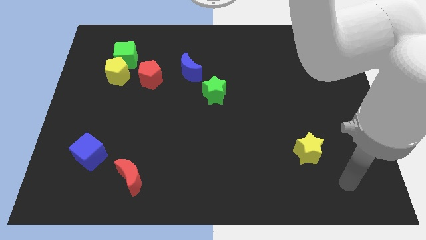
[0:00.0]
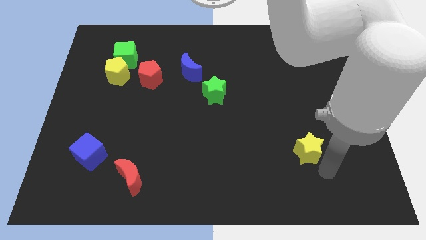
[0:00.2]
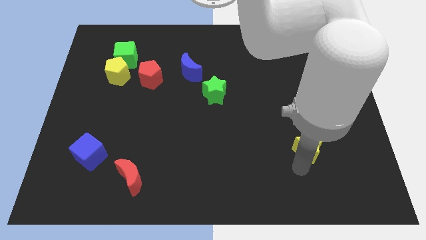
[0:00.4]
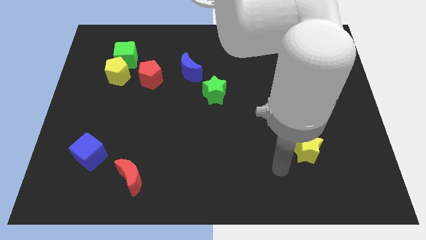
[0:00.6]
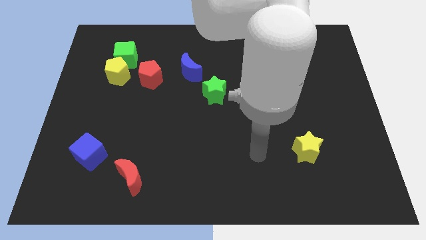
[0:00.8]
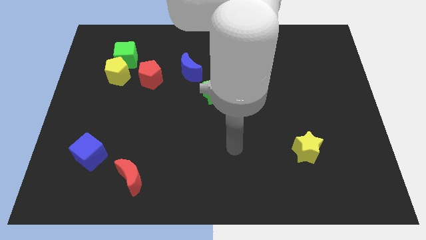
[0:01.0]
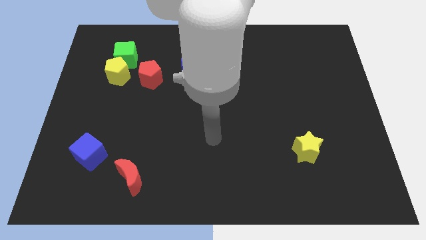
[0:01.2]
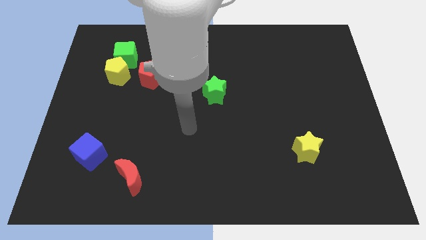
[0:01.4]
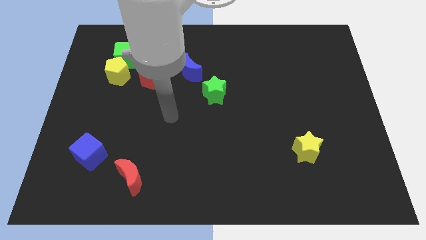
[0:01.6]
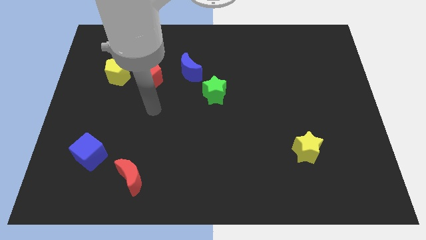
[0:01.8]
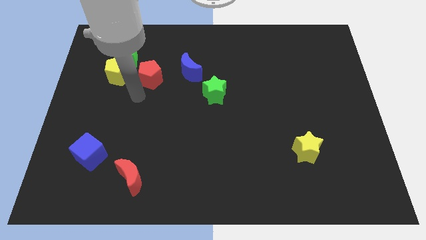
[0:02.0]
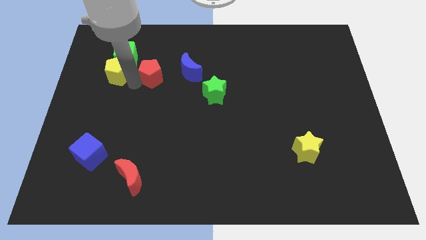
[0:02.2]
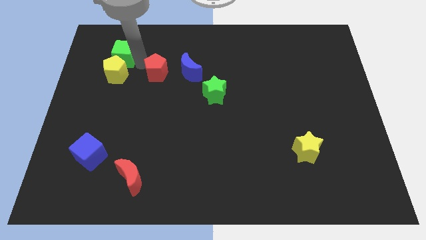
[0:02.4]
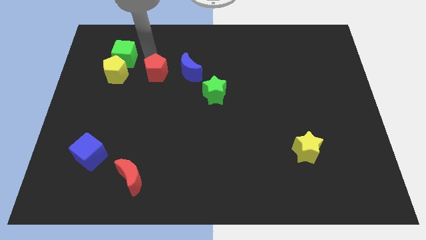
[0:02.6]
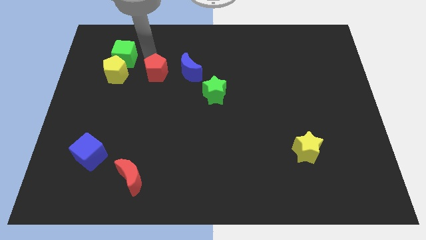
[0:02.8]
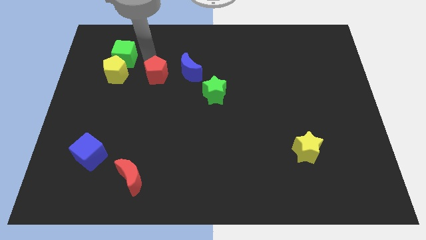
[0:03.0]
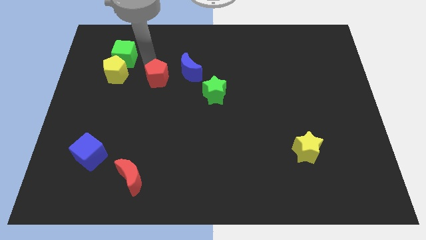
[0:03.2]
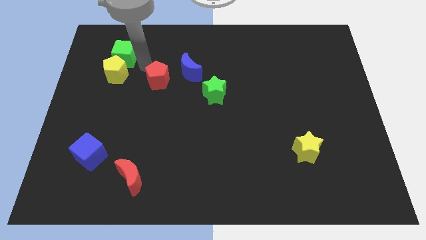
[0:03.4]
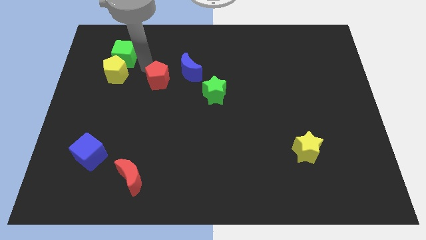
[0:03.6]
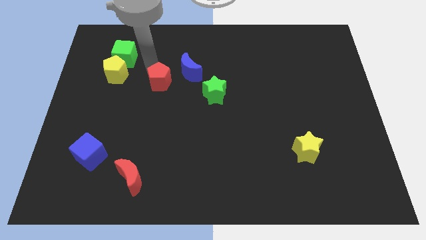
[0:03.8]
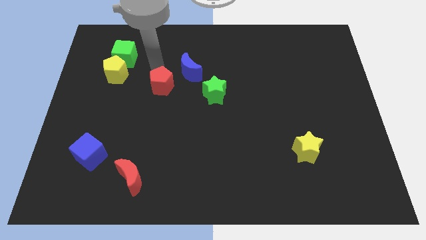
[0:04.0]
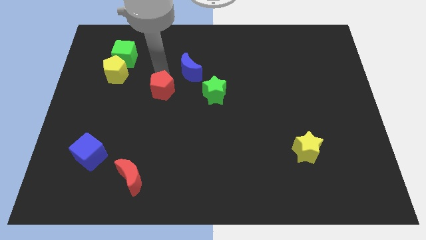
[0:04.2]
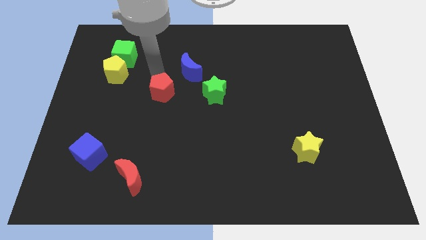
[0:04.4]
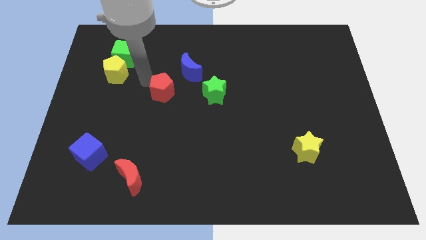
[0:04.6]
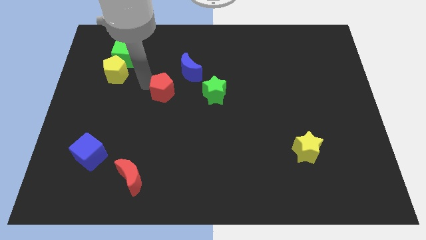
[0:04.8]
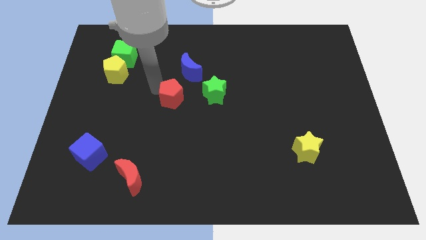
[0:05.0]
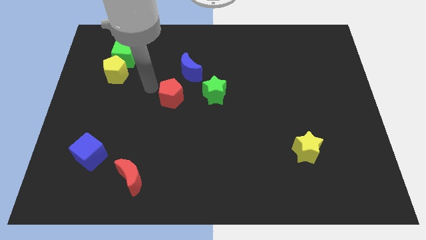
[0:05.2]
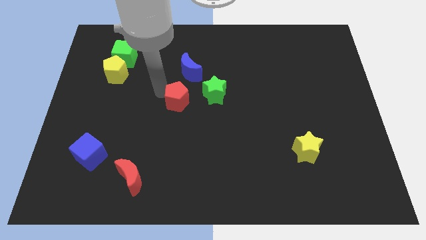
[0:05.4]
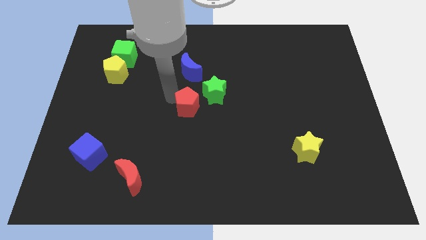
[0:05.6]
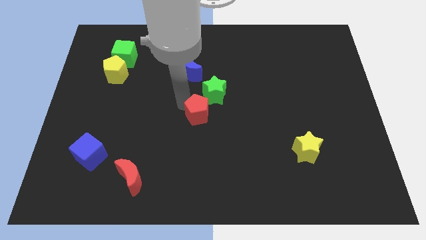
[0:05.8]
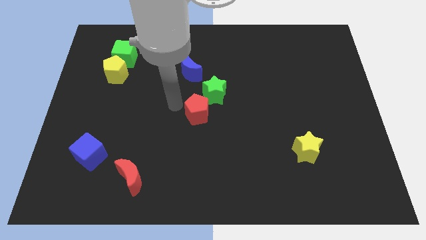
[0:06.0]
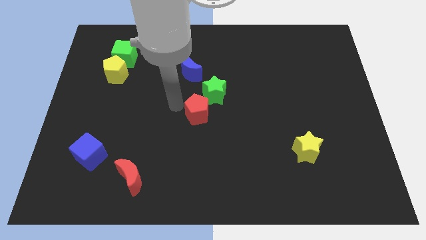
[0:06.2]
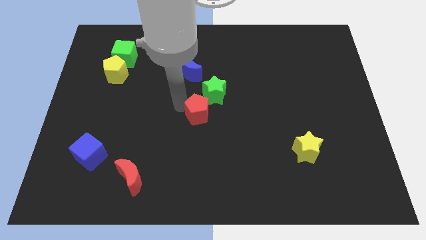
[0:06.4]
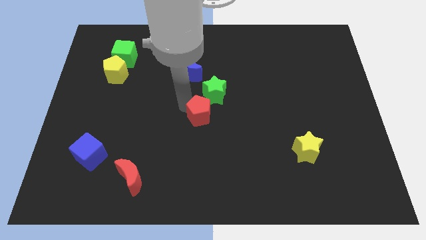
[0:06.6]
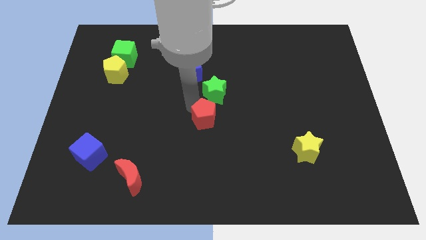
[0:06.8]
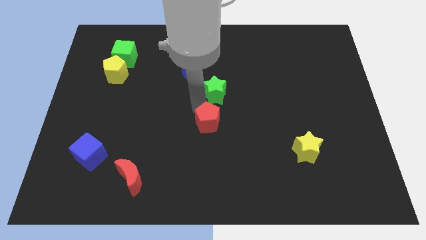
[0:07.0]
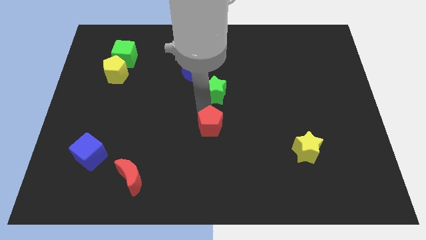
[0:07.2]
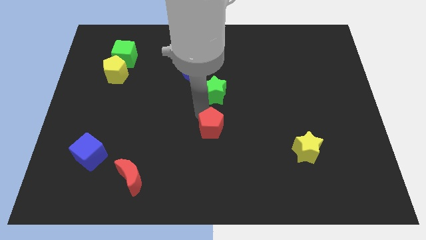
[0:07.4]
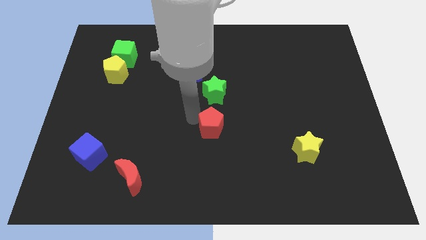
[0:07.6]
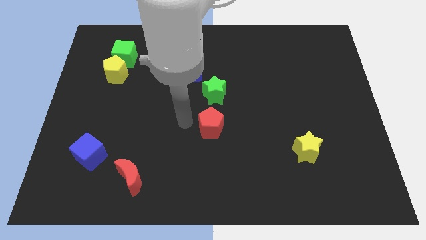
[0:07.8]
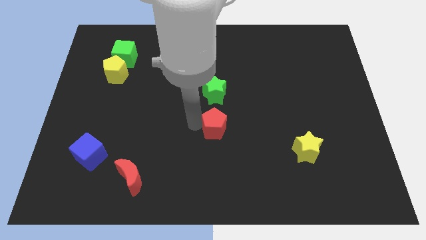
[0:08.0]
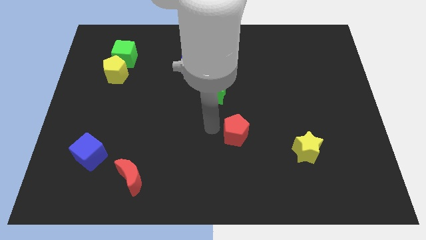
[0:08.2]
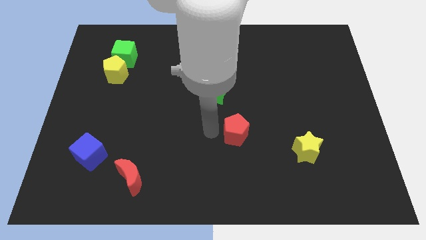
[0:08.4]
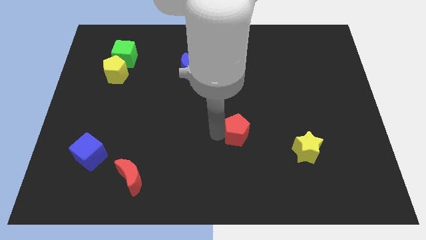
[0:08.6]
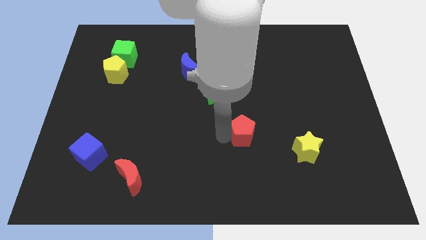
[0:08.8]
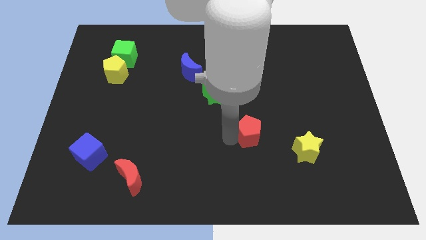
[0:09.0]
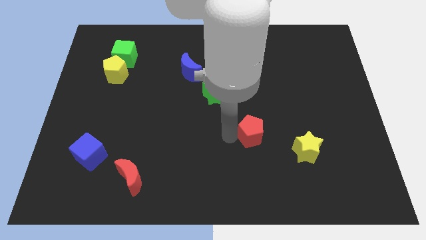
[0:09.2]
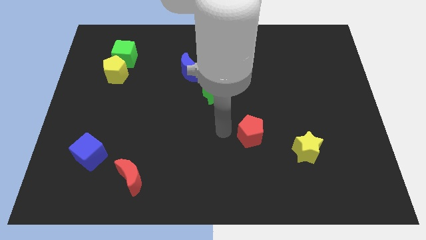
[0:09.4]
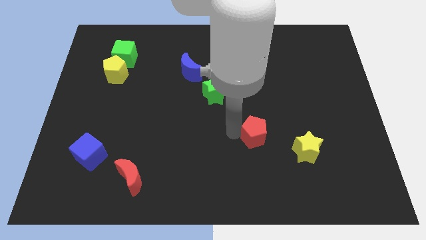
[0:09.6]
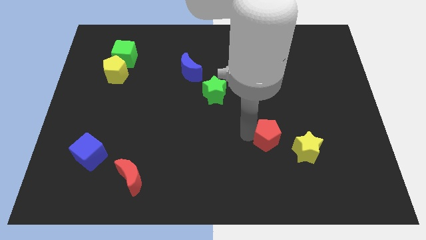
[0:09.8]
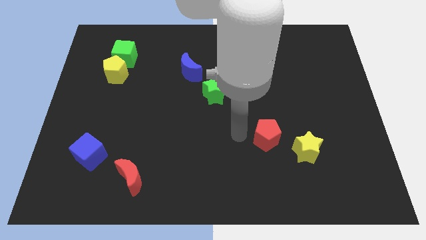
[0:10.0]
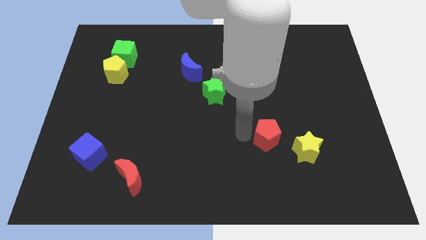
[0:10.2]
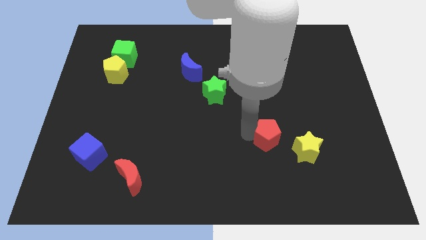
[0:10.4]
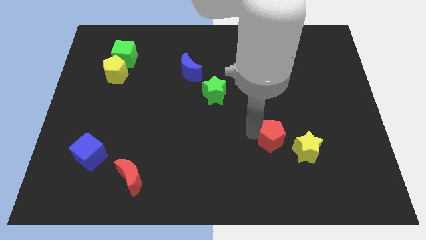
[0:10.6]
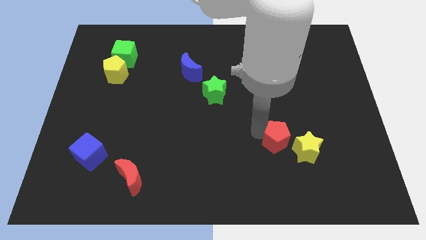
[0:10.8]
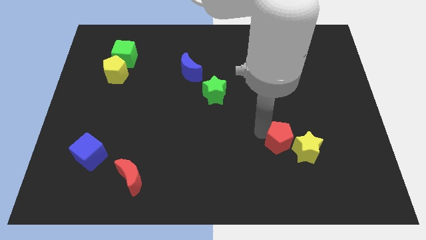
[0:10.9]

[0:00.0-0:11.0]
push the red pentagon next to the yellow star

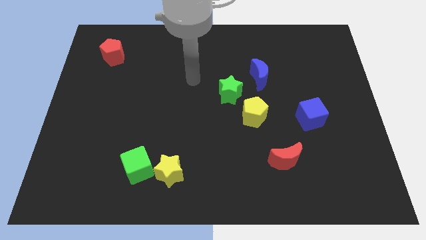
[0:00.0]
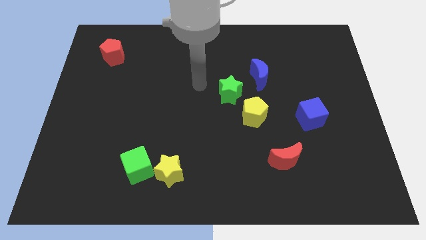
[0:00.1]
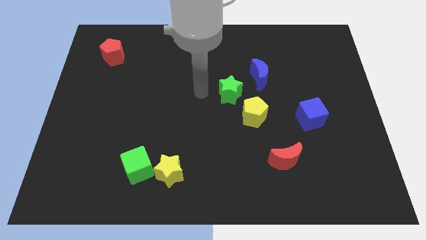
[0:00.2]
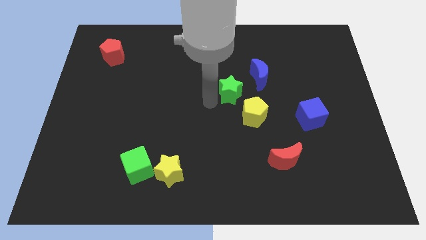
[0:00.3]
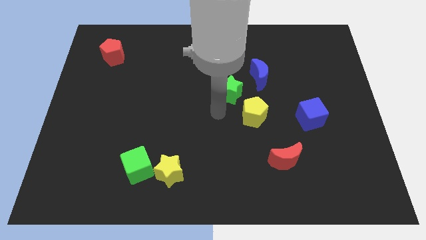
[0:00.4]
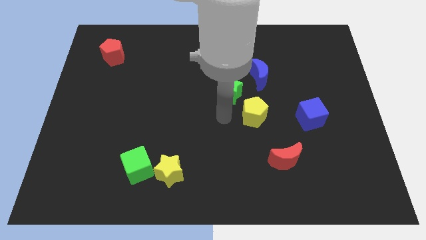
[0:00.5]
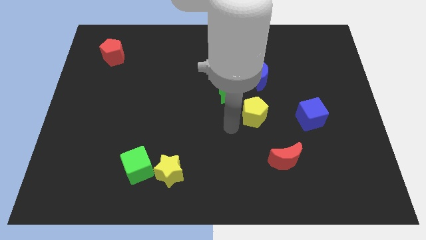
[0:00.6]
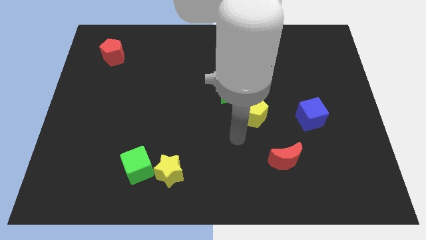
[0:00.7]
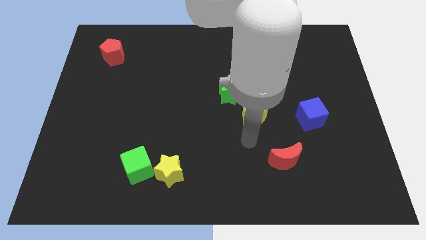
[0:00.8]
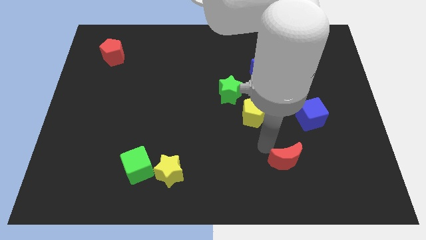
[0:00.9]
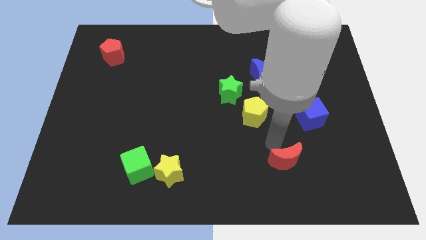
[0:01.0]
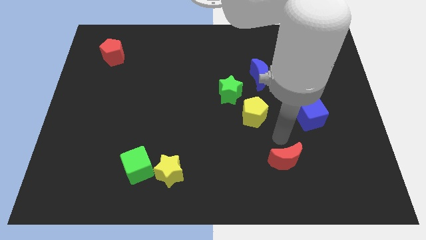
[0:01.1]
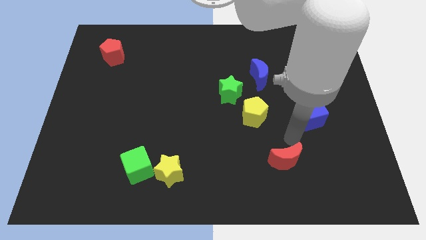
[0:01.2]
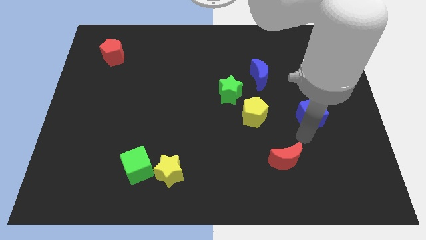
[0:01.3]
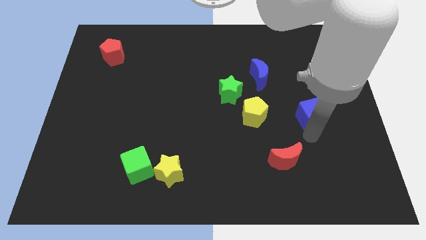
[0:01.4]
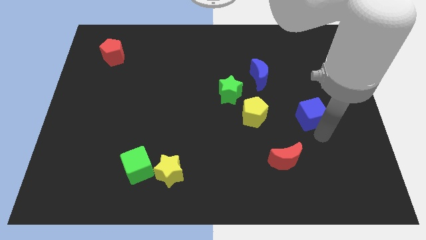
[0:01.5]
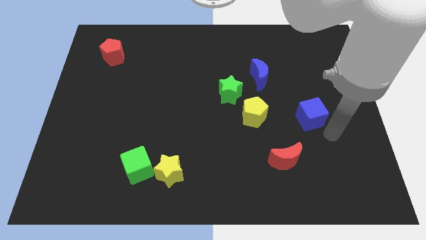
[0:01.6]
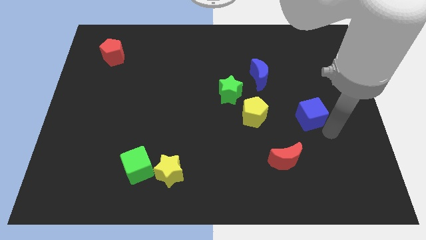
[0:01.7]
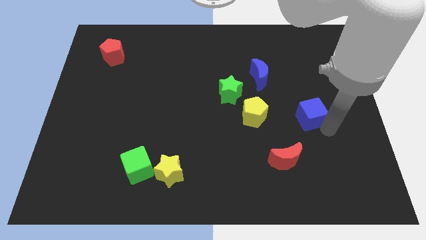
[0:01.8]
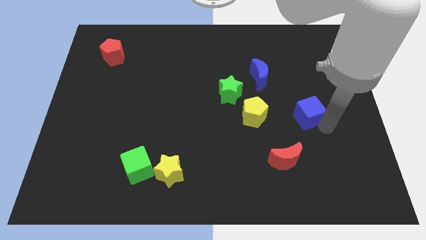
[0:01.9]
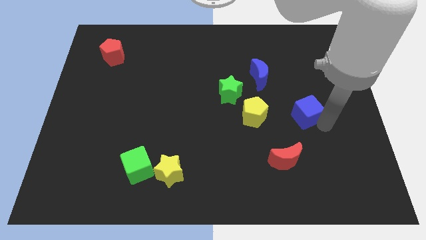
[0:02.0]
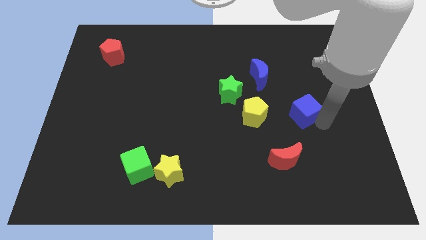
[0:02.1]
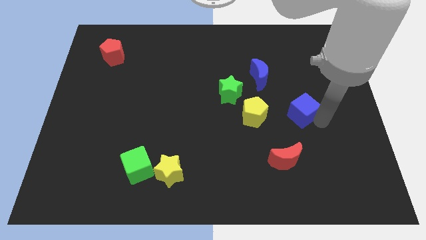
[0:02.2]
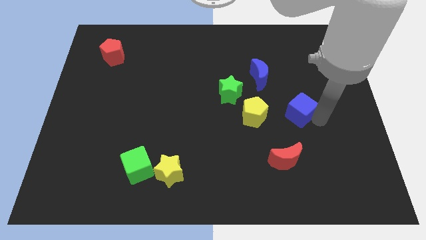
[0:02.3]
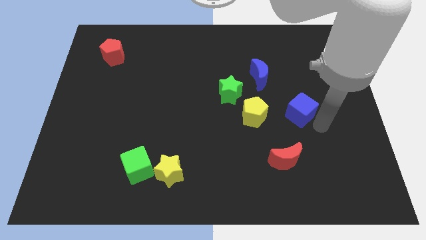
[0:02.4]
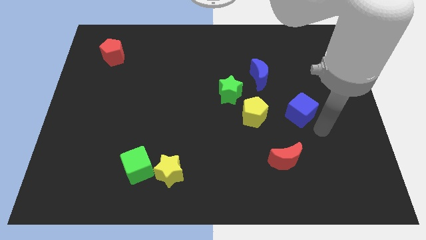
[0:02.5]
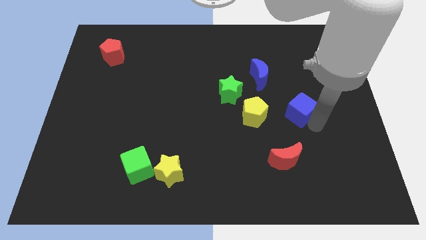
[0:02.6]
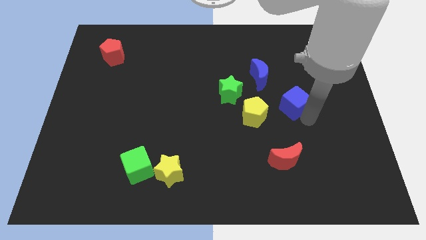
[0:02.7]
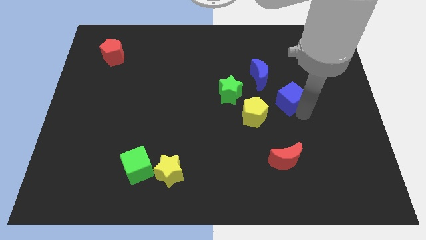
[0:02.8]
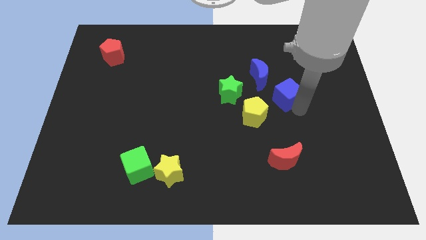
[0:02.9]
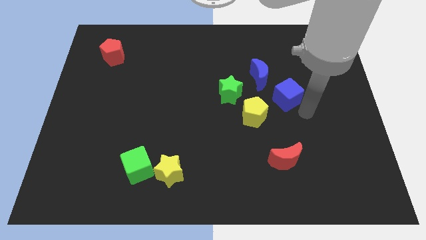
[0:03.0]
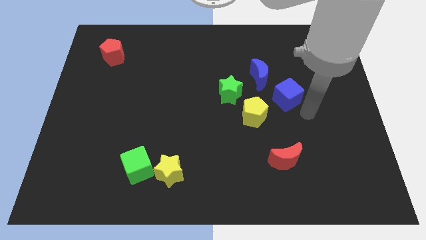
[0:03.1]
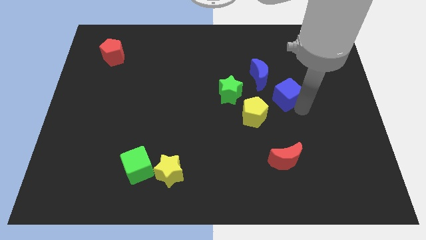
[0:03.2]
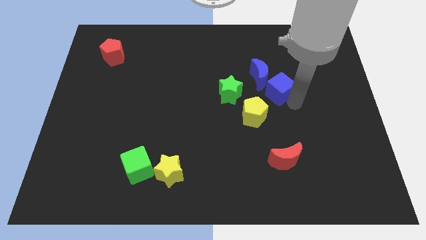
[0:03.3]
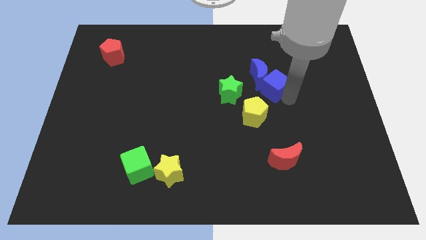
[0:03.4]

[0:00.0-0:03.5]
put the blue cube to the blue moon
